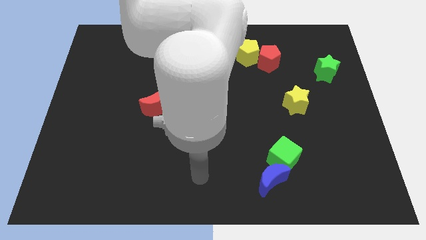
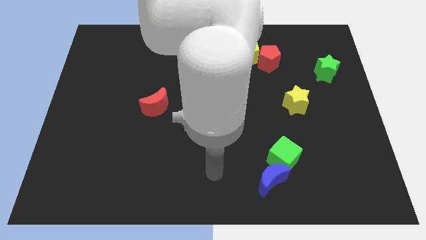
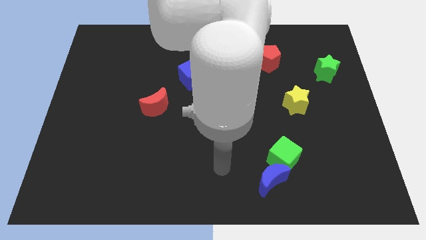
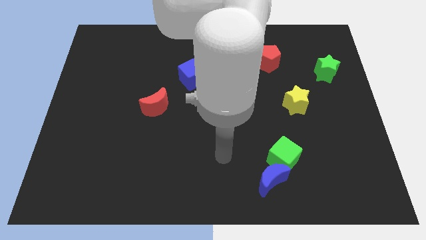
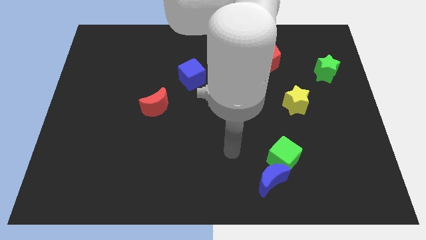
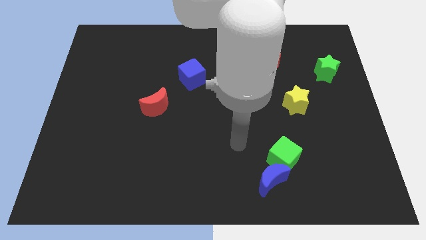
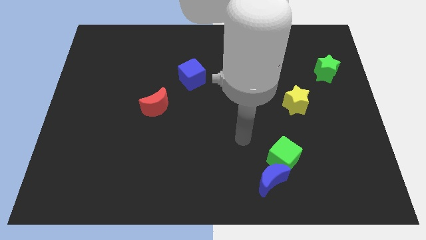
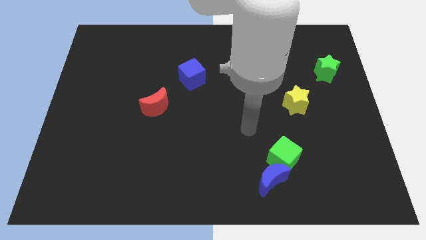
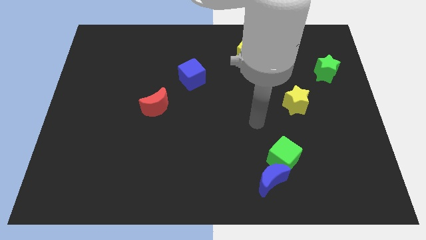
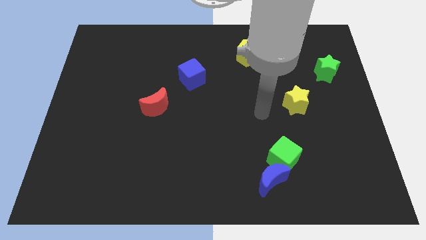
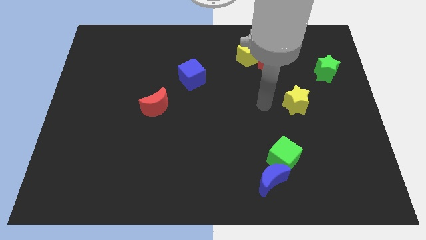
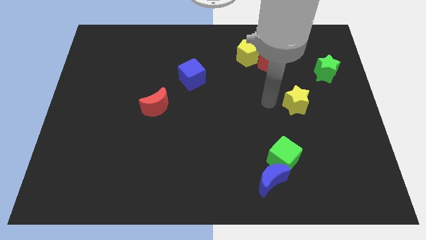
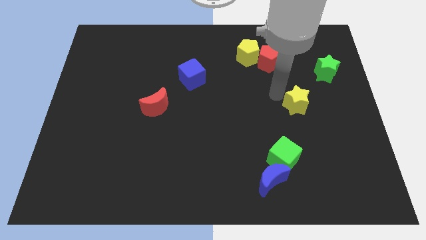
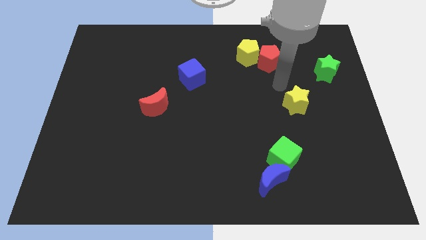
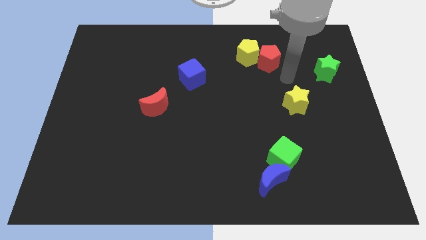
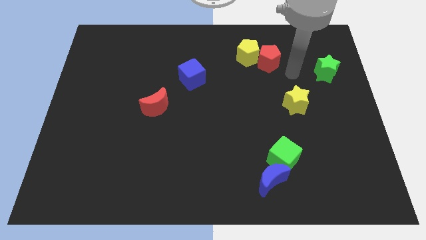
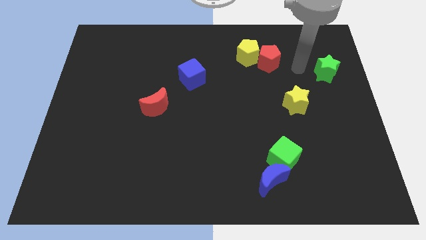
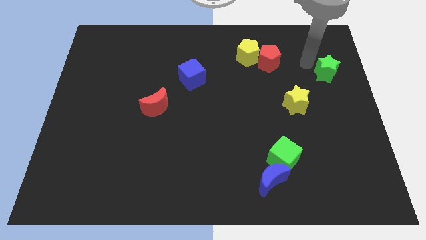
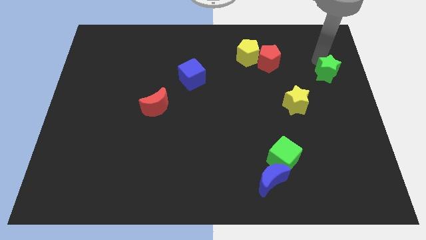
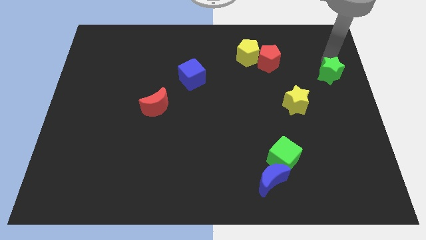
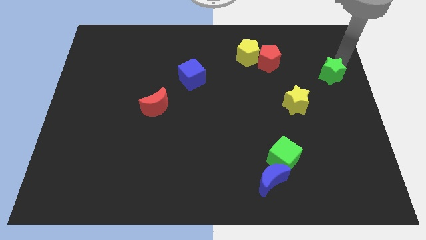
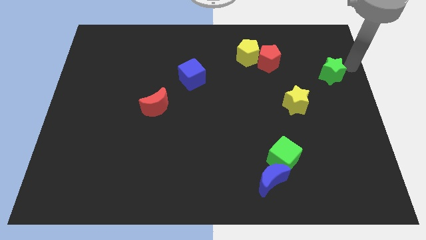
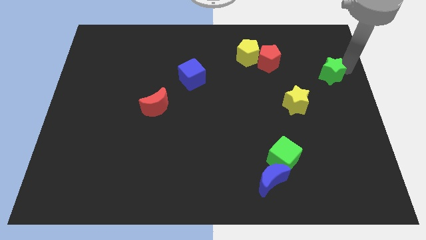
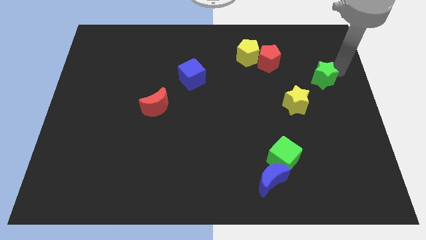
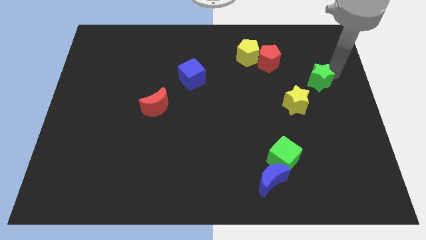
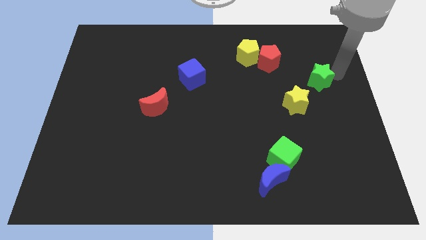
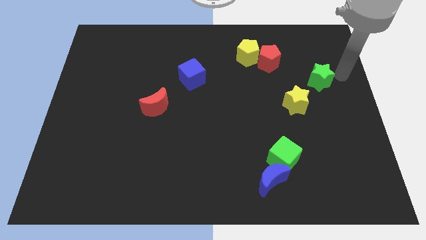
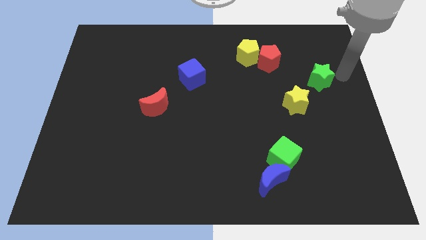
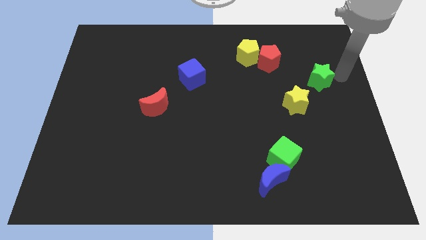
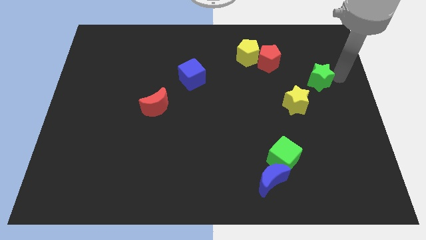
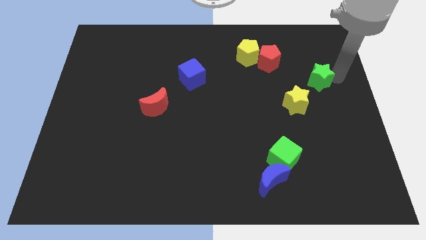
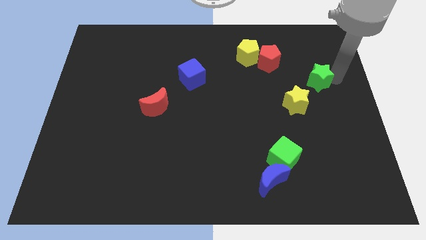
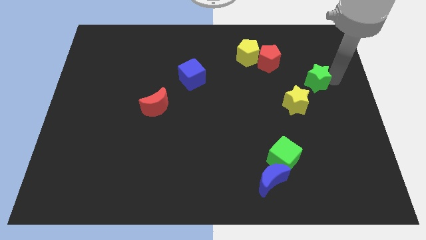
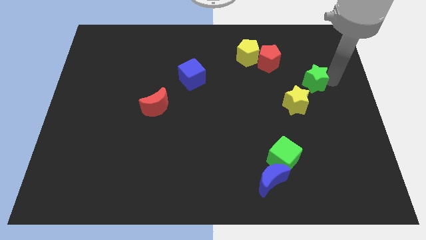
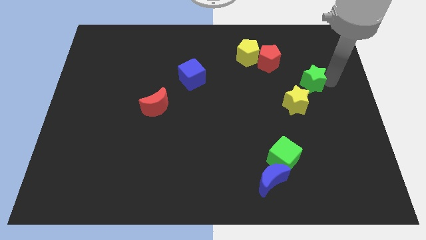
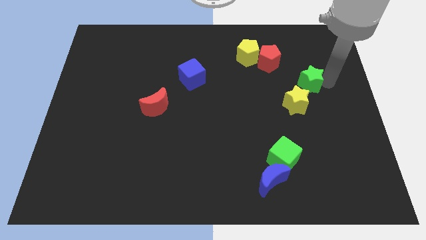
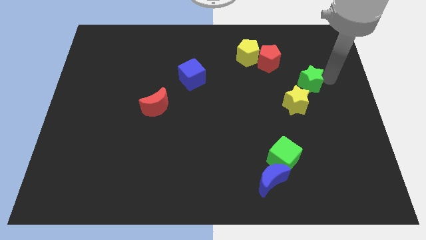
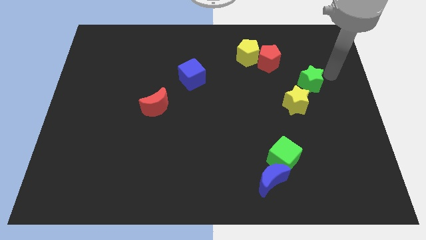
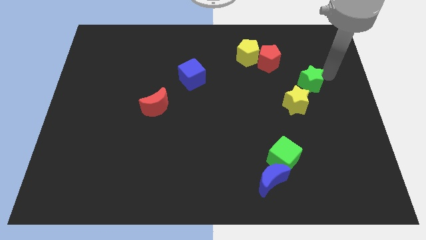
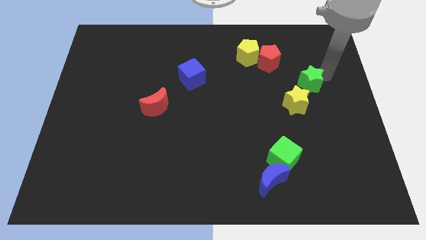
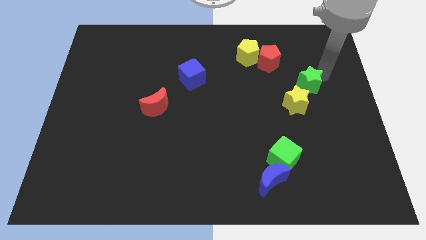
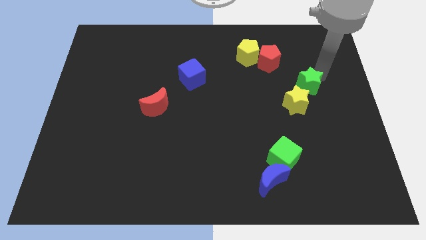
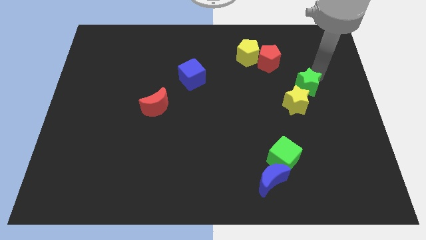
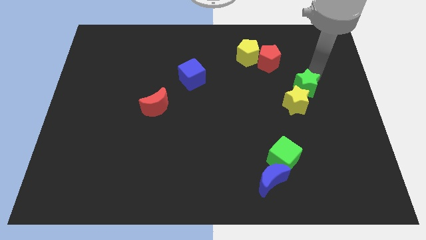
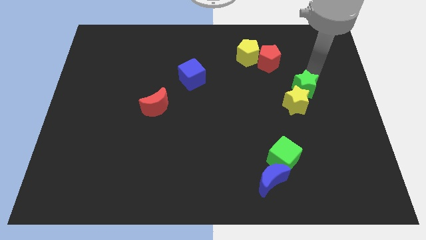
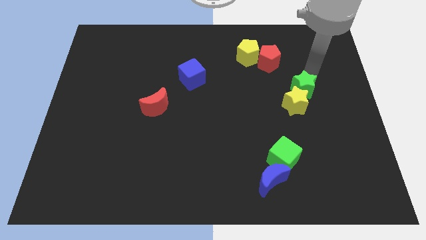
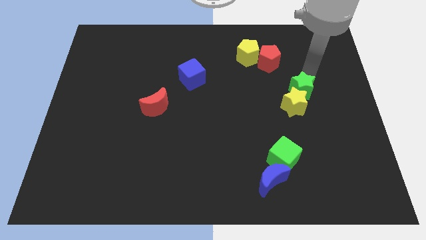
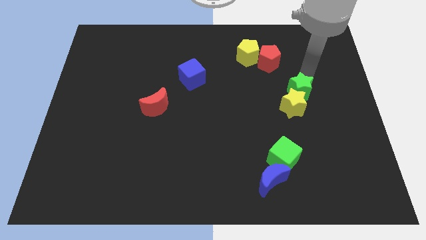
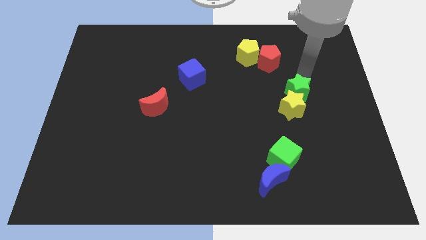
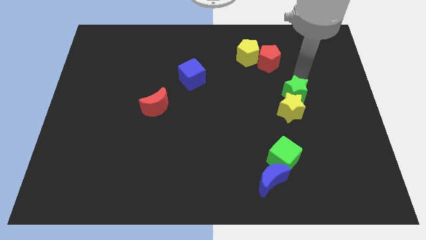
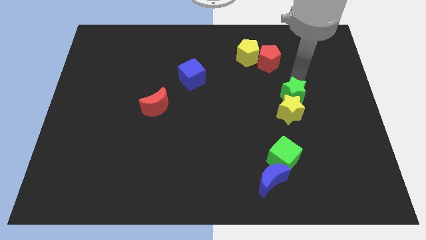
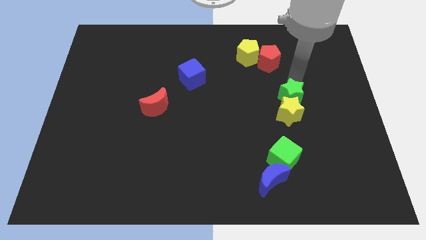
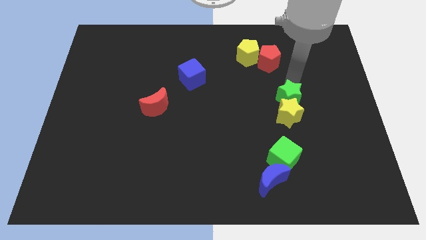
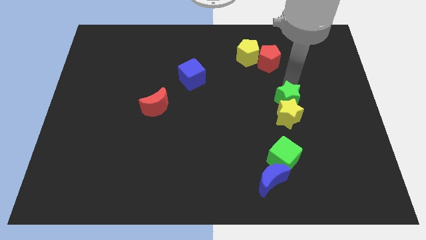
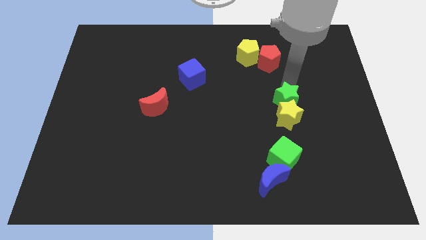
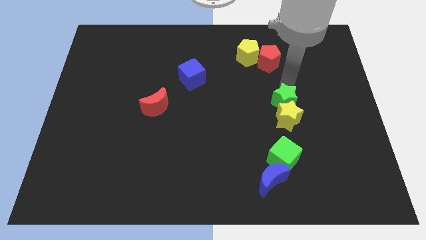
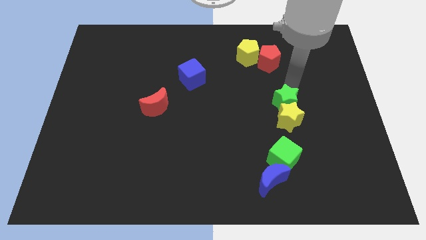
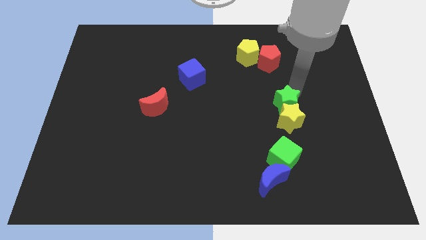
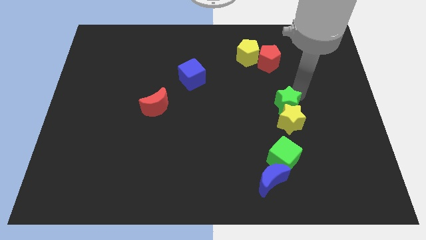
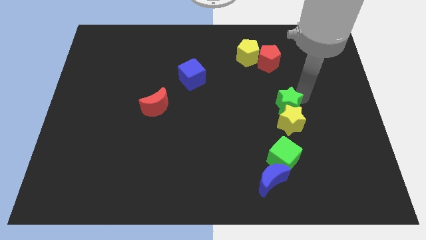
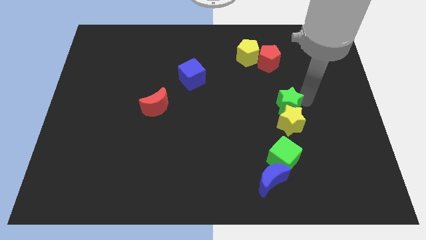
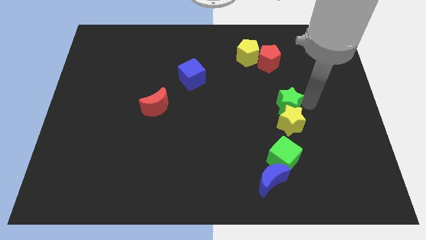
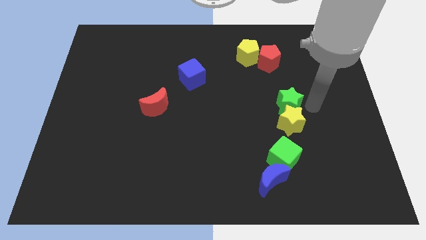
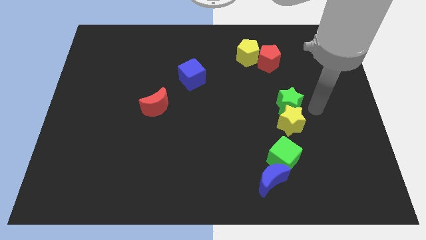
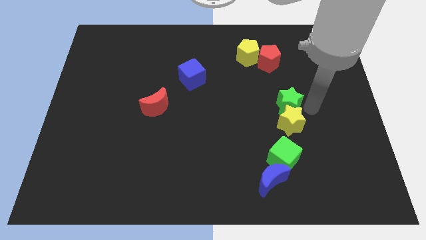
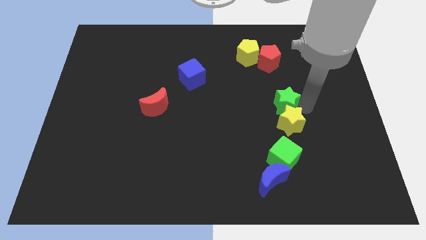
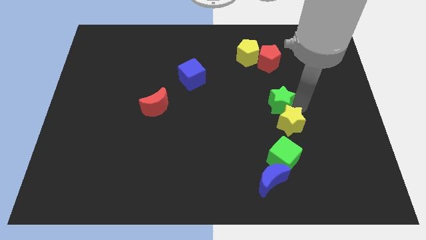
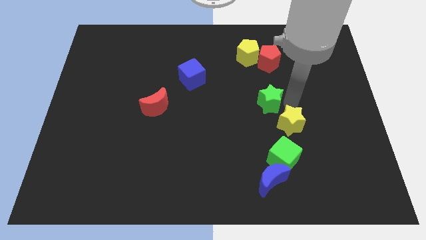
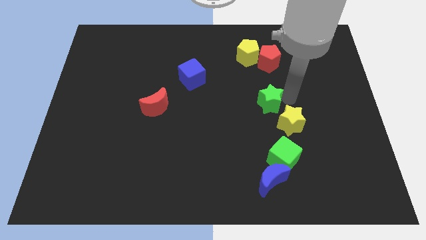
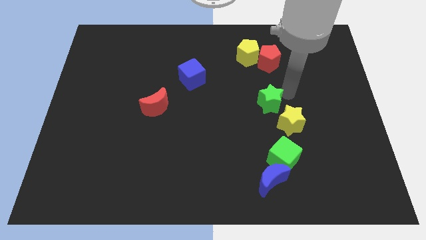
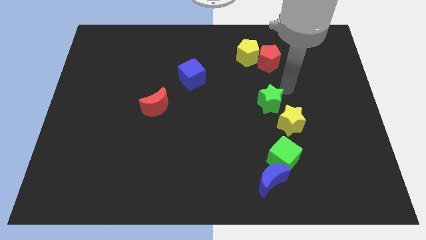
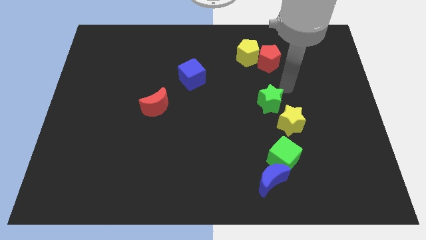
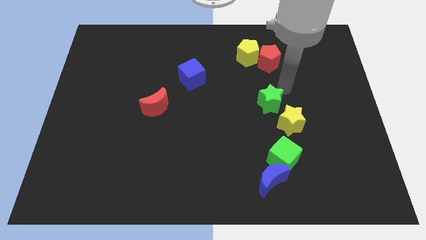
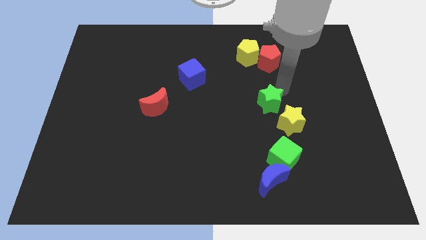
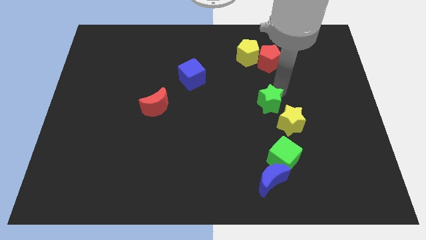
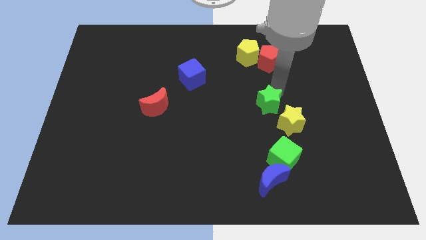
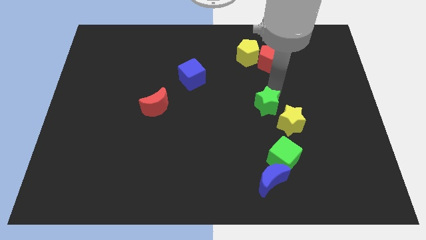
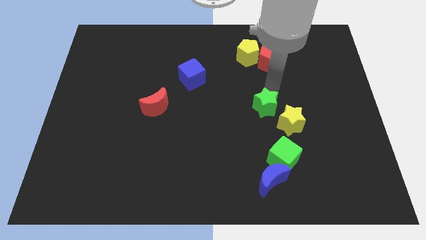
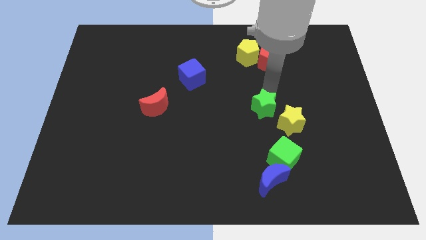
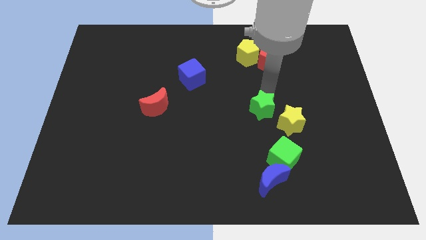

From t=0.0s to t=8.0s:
move the green star down and left
